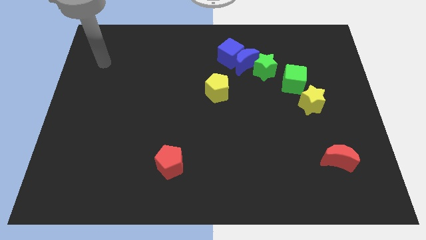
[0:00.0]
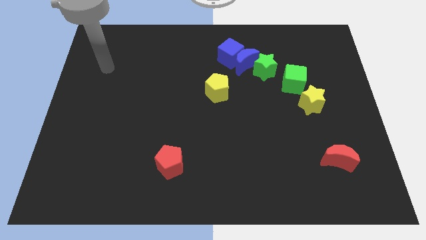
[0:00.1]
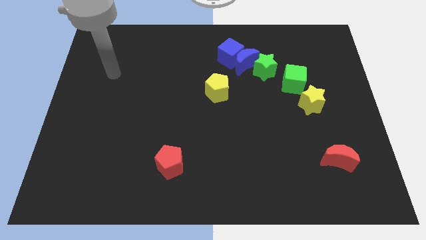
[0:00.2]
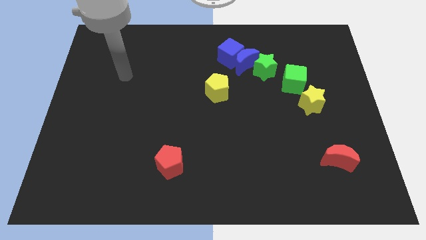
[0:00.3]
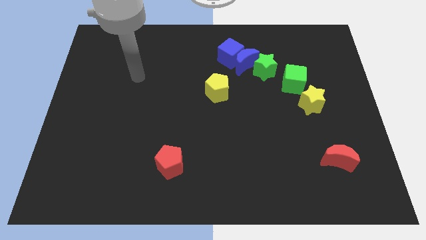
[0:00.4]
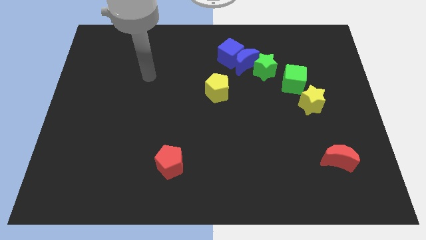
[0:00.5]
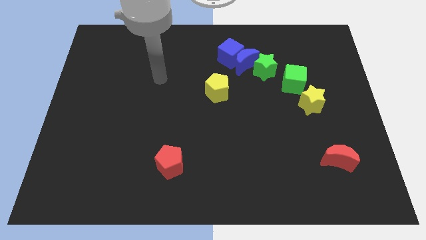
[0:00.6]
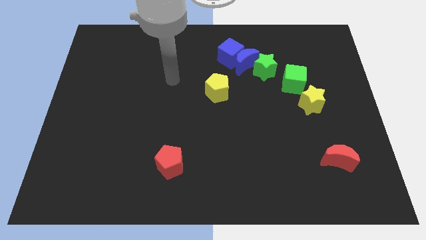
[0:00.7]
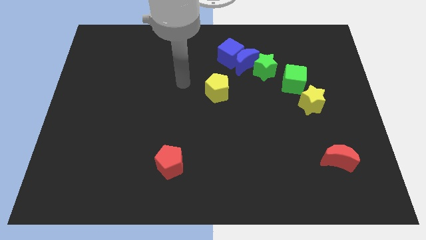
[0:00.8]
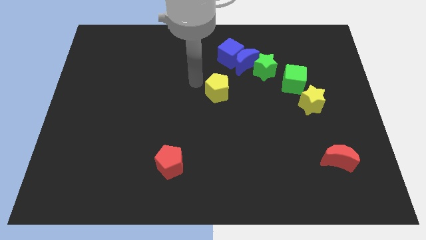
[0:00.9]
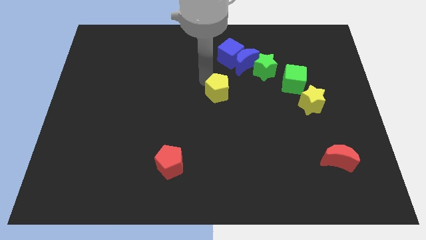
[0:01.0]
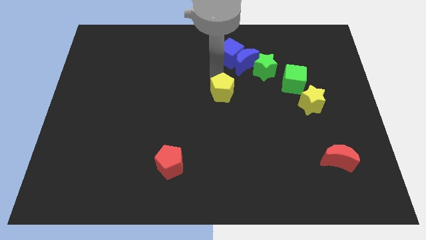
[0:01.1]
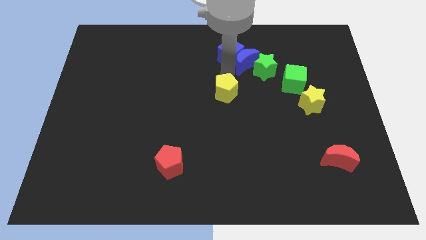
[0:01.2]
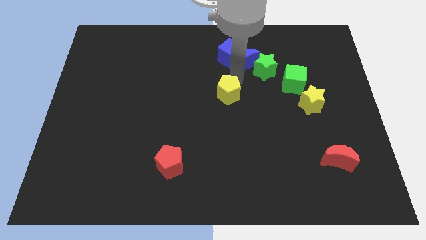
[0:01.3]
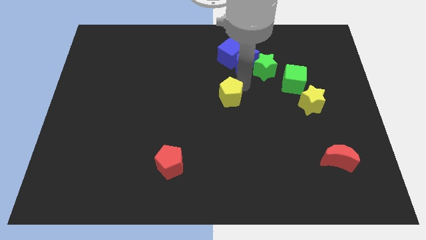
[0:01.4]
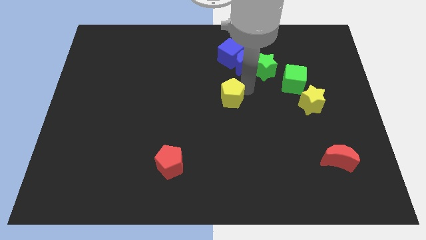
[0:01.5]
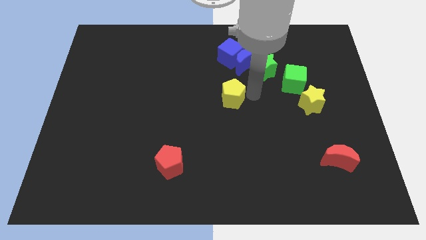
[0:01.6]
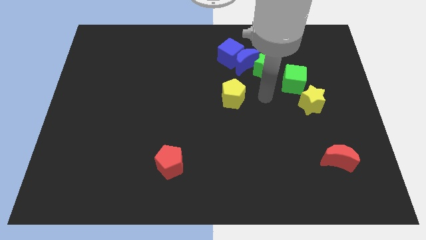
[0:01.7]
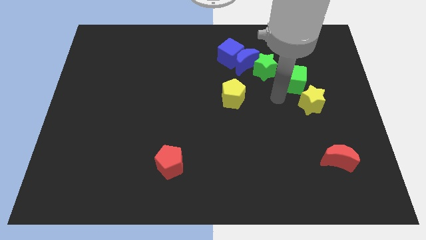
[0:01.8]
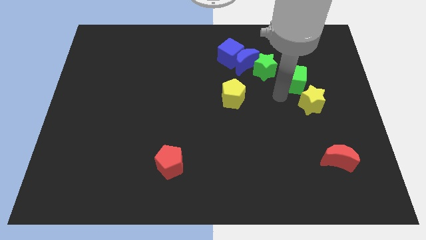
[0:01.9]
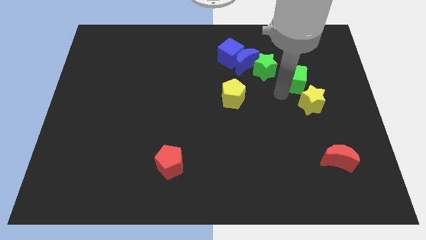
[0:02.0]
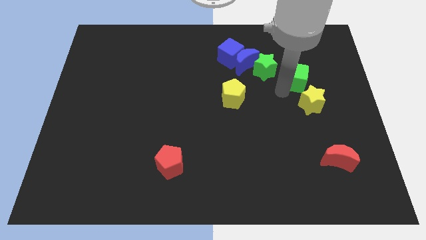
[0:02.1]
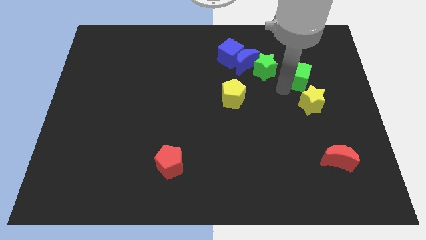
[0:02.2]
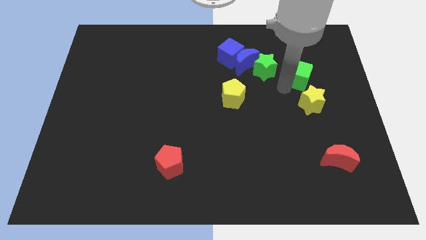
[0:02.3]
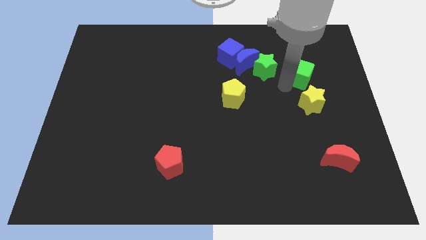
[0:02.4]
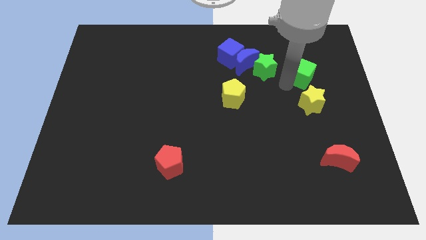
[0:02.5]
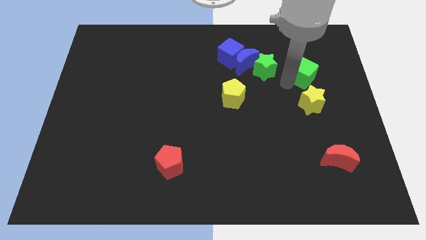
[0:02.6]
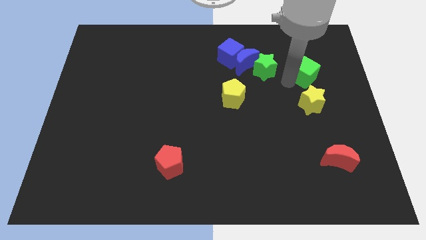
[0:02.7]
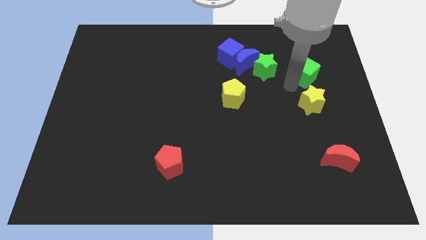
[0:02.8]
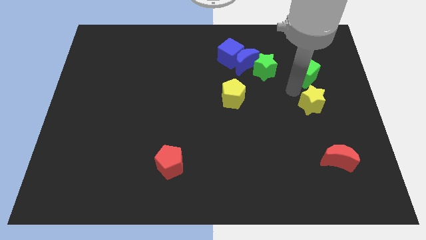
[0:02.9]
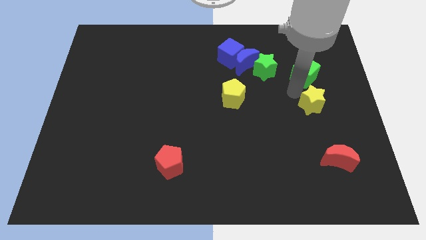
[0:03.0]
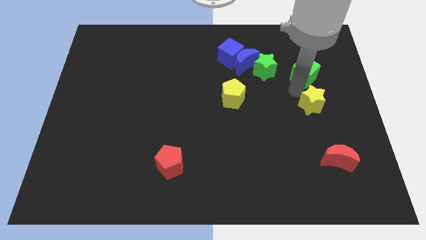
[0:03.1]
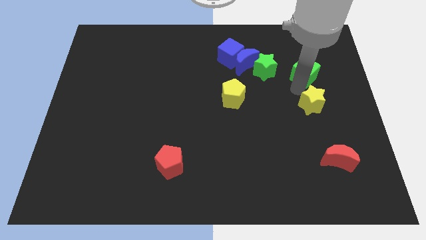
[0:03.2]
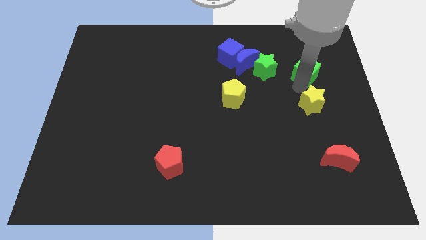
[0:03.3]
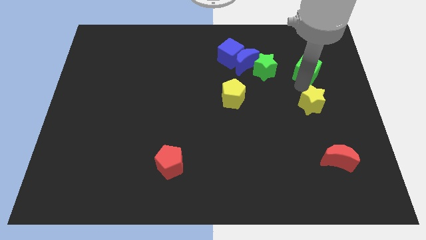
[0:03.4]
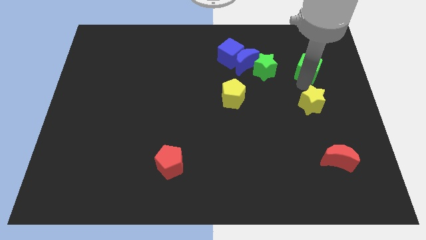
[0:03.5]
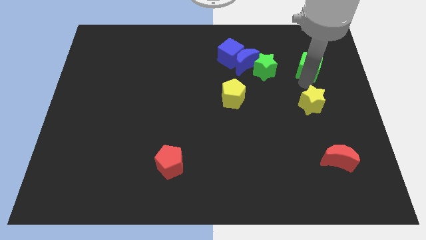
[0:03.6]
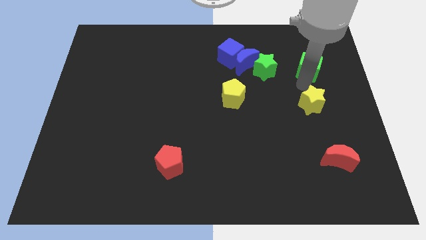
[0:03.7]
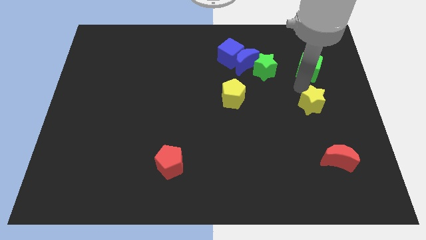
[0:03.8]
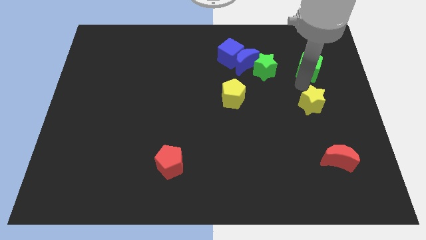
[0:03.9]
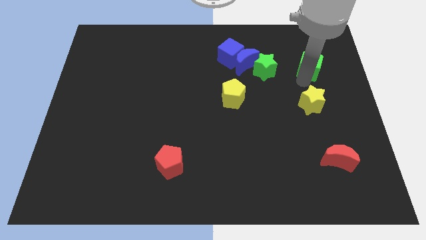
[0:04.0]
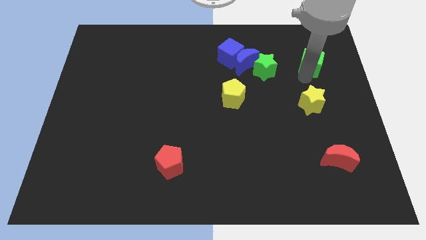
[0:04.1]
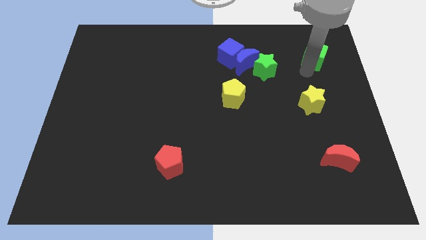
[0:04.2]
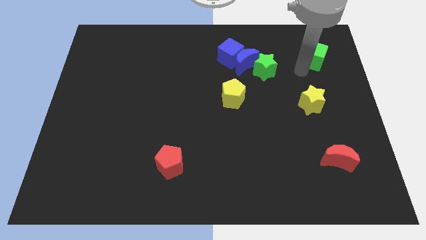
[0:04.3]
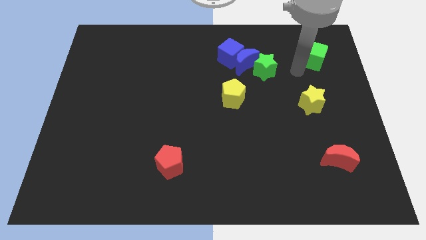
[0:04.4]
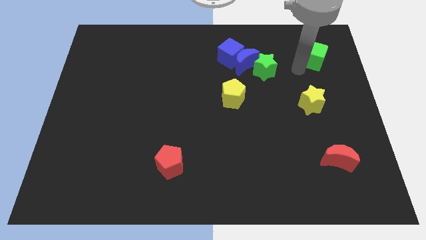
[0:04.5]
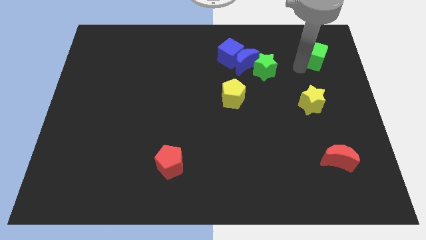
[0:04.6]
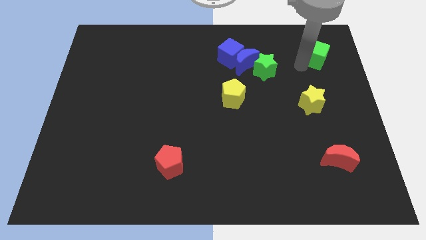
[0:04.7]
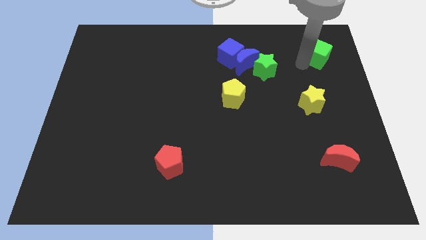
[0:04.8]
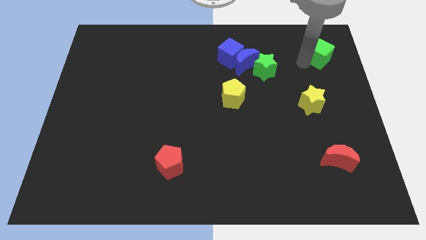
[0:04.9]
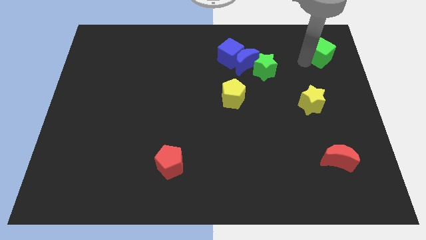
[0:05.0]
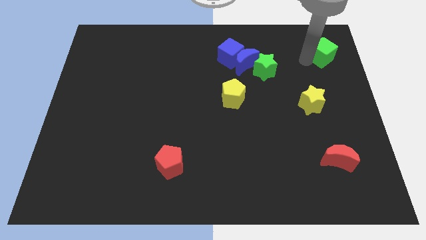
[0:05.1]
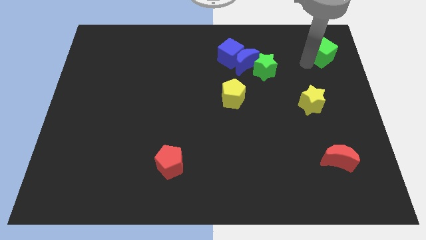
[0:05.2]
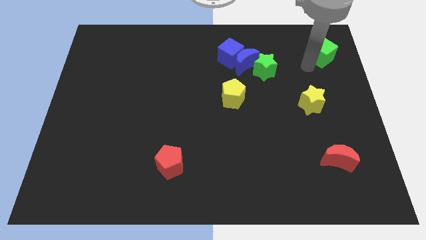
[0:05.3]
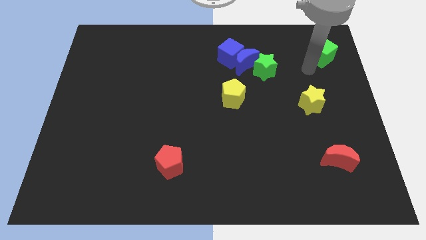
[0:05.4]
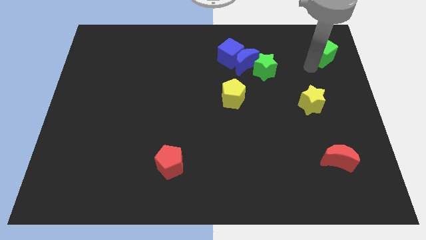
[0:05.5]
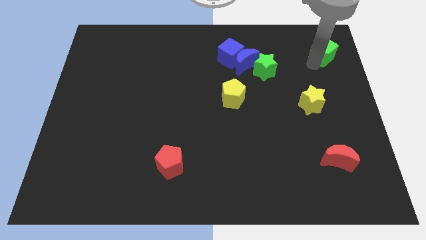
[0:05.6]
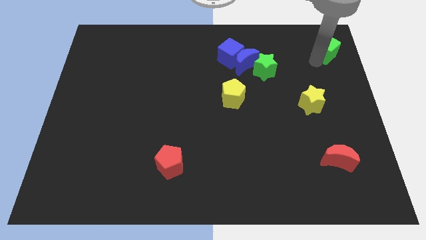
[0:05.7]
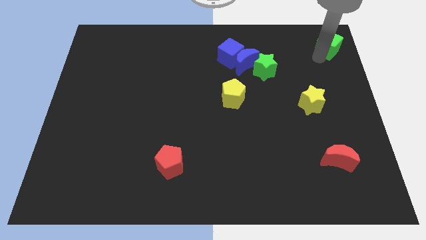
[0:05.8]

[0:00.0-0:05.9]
push the green cube to the upper right corner

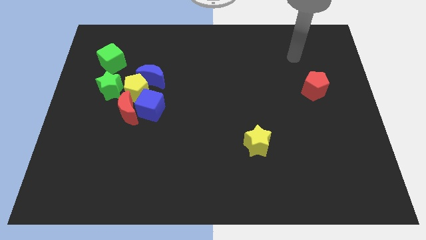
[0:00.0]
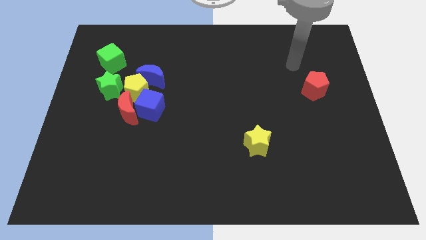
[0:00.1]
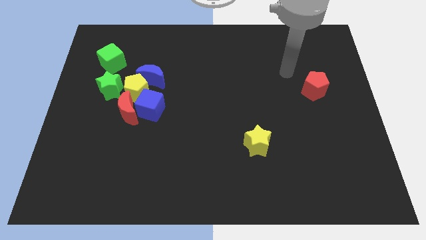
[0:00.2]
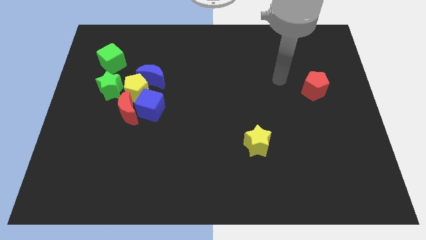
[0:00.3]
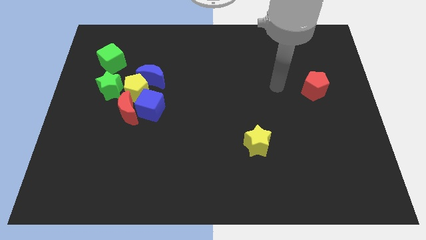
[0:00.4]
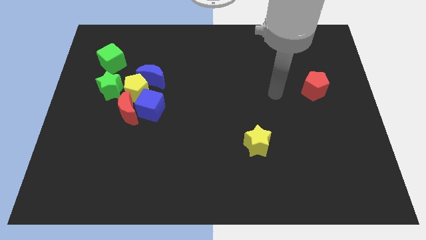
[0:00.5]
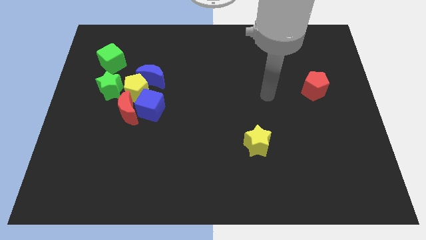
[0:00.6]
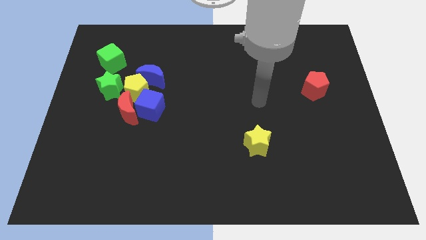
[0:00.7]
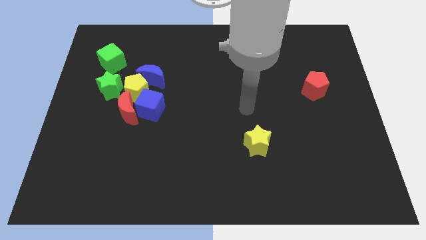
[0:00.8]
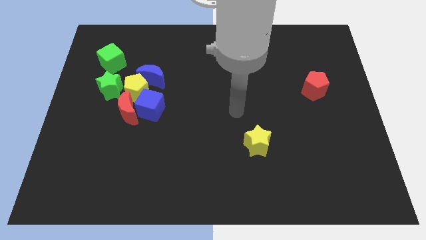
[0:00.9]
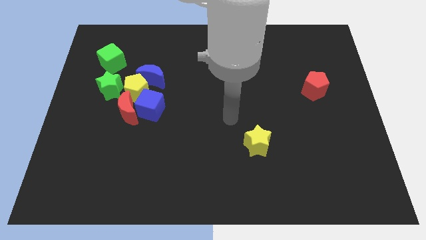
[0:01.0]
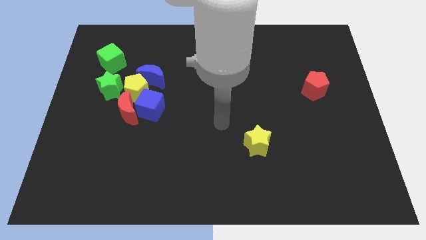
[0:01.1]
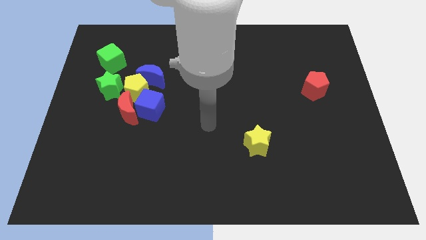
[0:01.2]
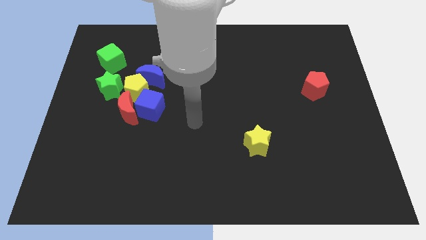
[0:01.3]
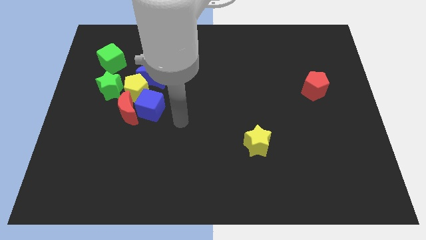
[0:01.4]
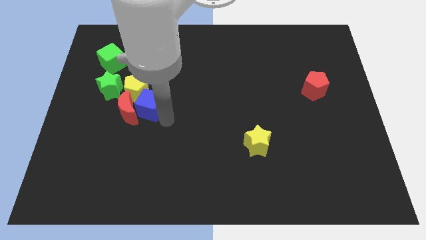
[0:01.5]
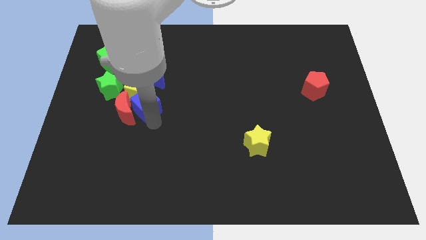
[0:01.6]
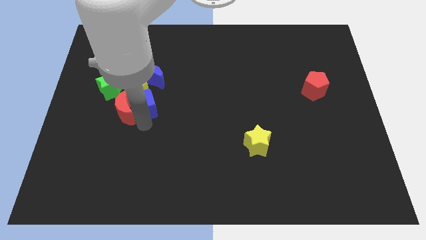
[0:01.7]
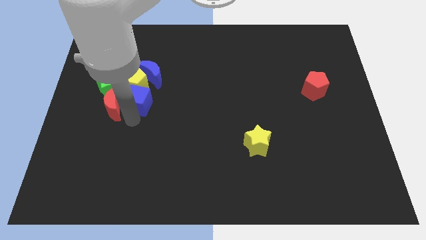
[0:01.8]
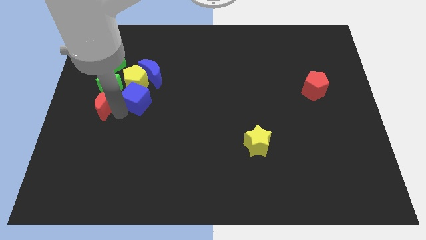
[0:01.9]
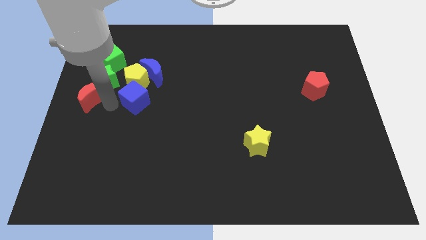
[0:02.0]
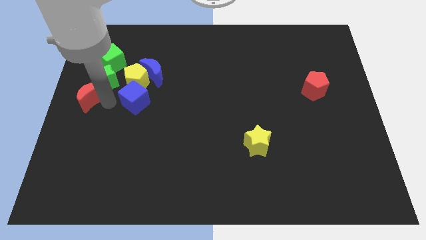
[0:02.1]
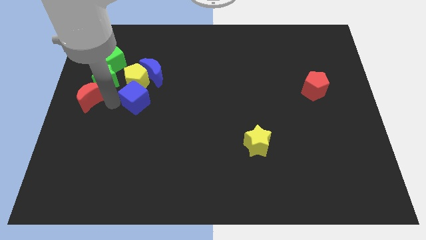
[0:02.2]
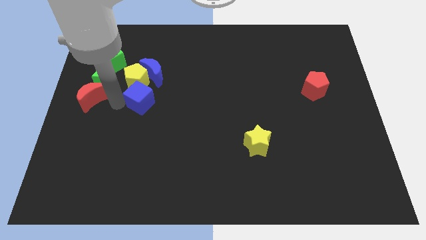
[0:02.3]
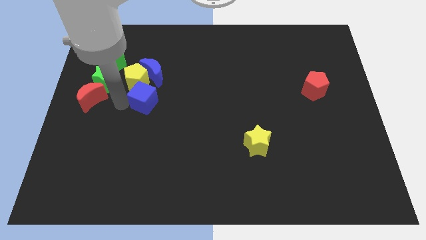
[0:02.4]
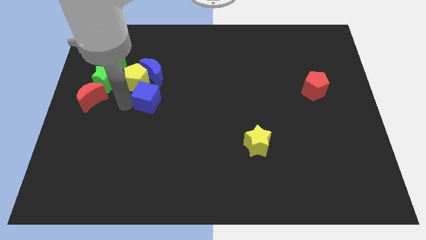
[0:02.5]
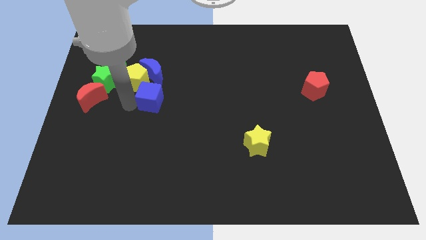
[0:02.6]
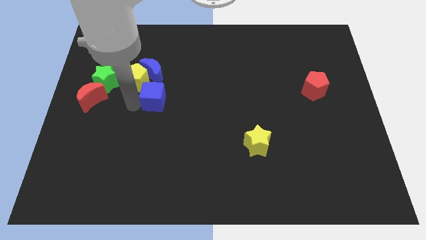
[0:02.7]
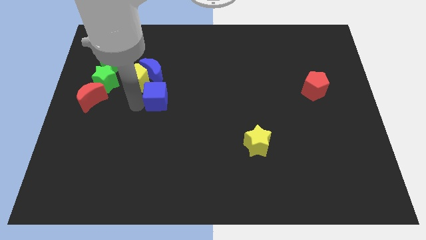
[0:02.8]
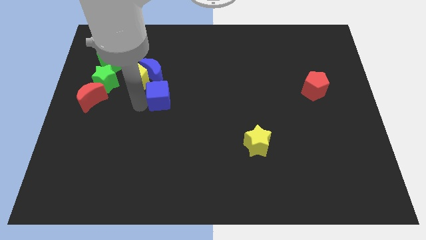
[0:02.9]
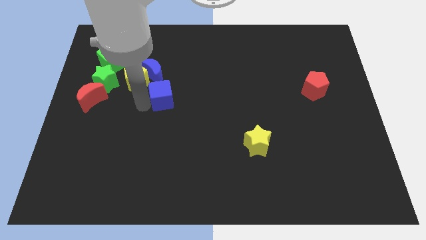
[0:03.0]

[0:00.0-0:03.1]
move the blue cube to the center
